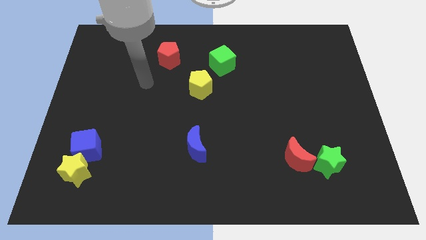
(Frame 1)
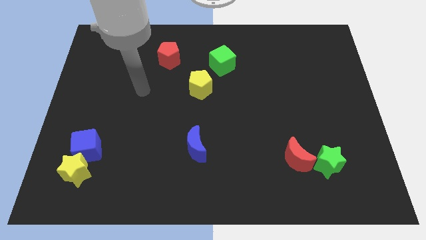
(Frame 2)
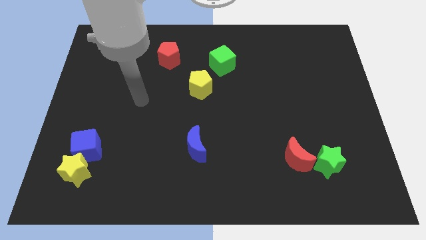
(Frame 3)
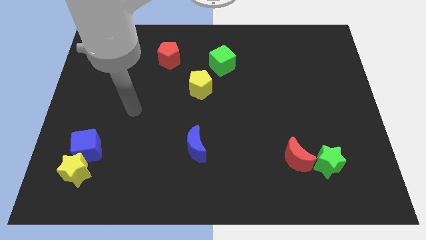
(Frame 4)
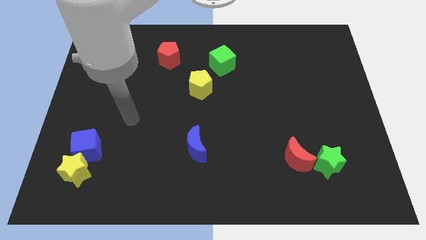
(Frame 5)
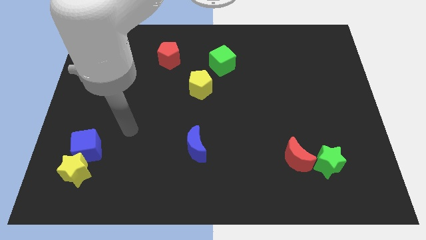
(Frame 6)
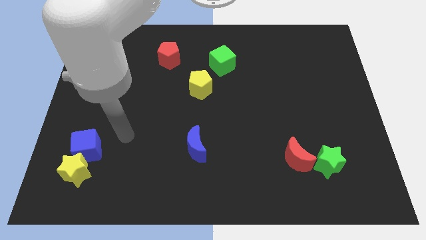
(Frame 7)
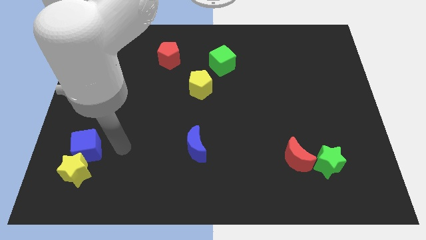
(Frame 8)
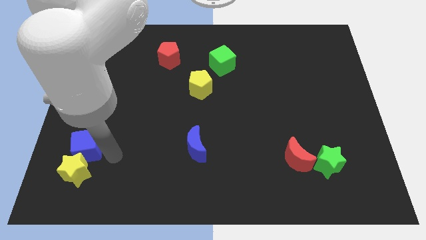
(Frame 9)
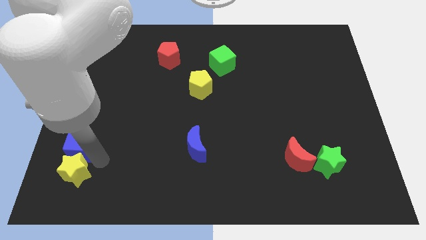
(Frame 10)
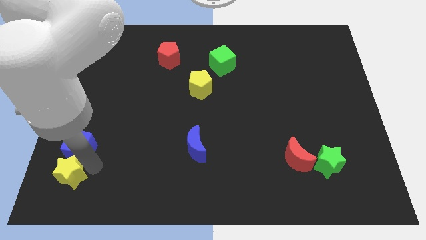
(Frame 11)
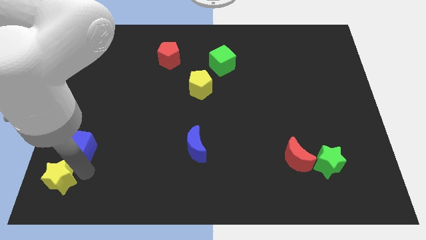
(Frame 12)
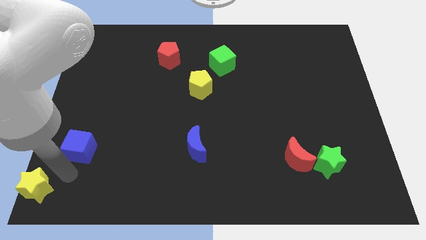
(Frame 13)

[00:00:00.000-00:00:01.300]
move the blue cube away from the yellow star

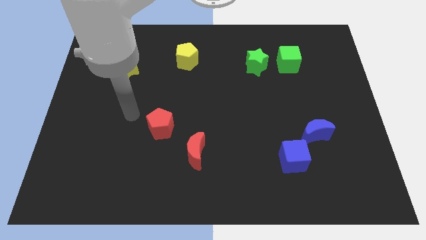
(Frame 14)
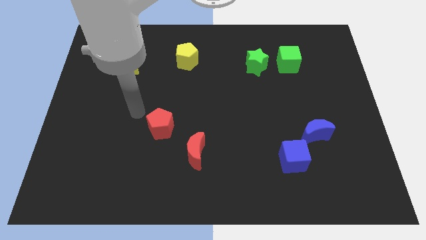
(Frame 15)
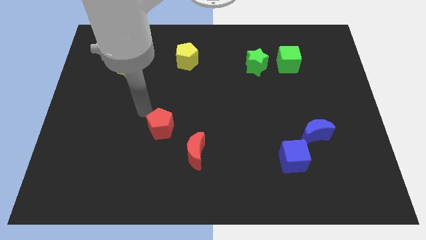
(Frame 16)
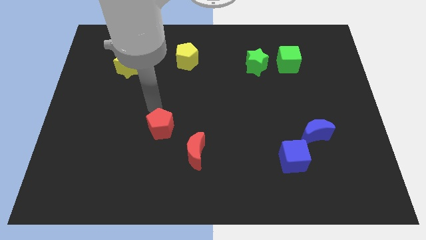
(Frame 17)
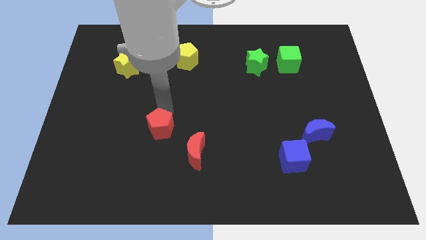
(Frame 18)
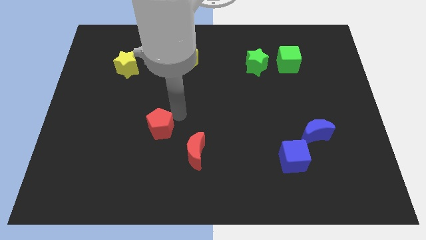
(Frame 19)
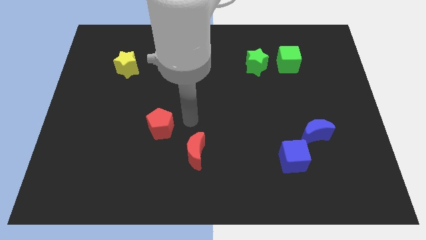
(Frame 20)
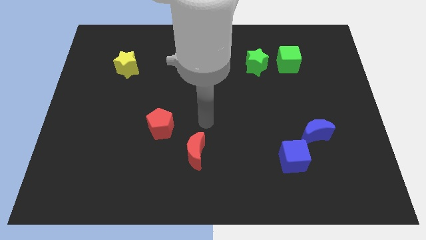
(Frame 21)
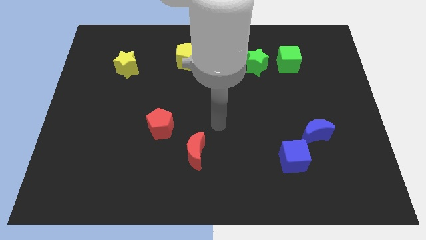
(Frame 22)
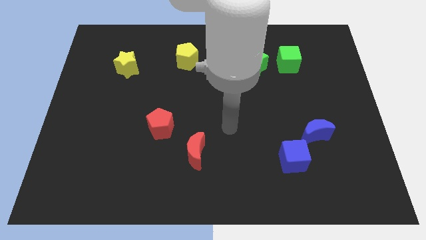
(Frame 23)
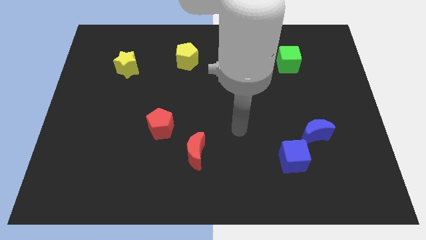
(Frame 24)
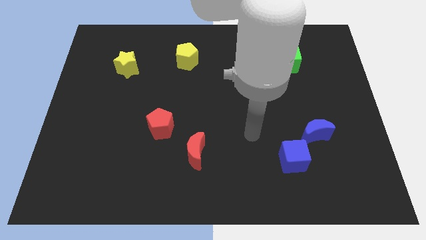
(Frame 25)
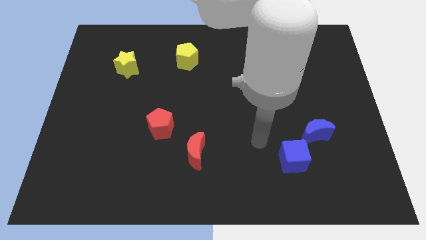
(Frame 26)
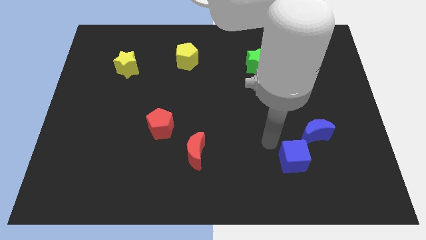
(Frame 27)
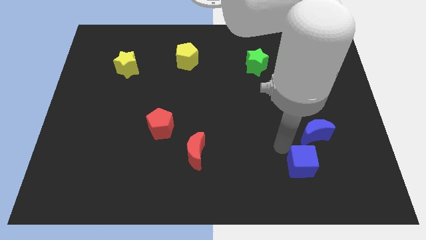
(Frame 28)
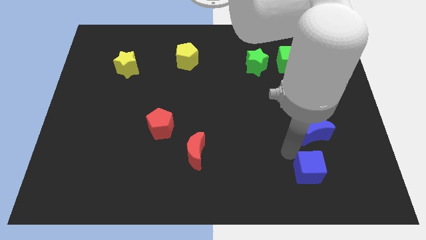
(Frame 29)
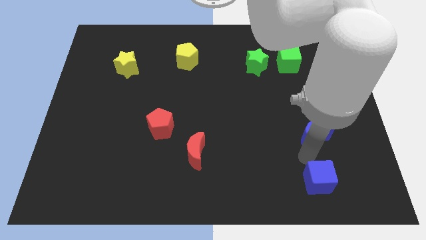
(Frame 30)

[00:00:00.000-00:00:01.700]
separate the blue moon from the blue cube

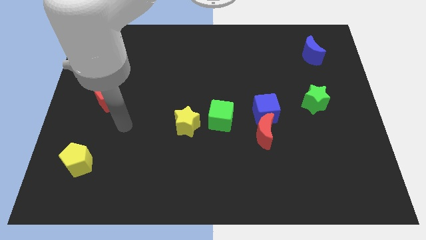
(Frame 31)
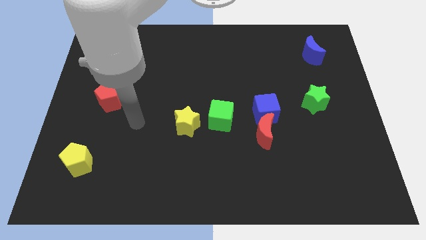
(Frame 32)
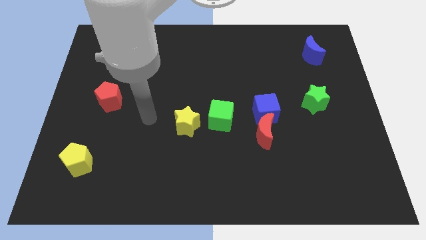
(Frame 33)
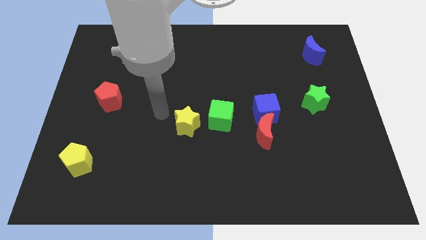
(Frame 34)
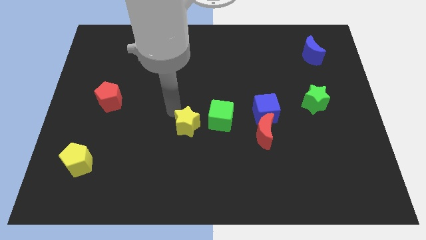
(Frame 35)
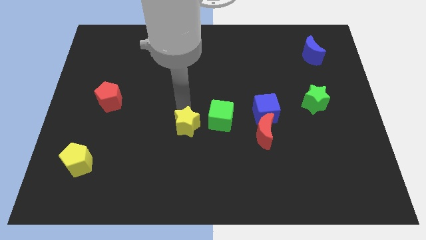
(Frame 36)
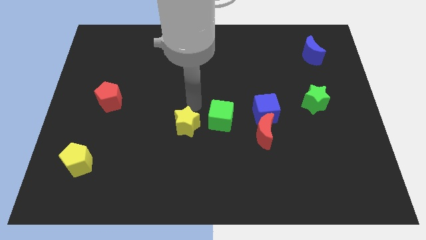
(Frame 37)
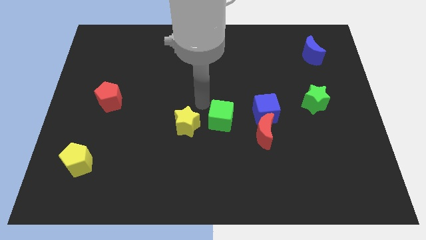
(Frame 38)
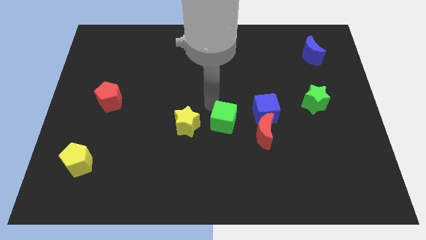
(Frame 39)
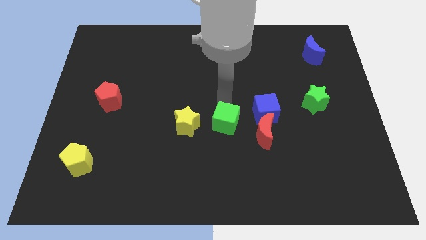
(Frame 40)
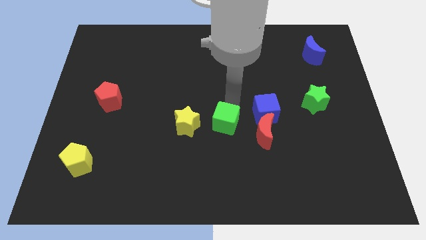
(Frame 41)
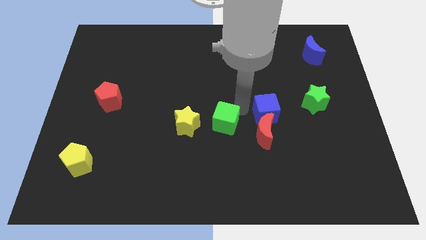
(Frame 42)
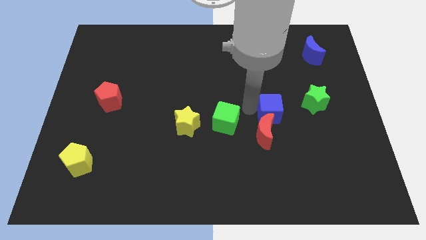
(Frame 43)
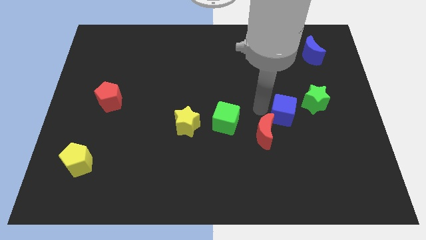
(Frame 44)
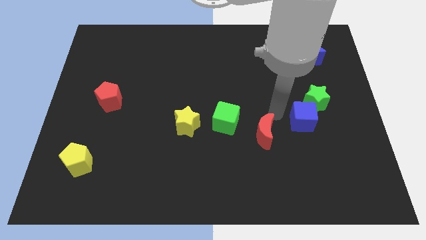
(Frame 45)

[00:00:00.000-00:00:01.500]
move the red moon away from the blue cube

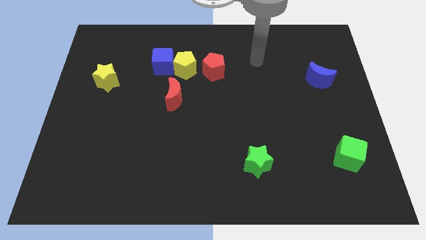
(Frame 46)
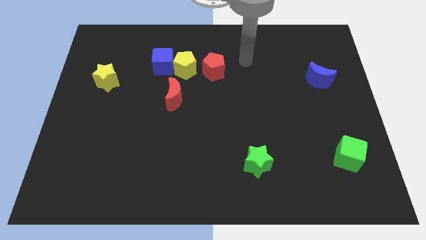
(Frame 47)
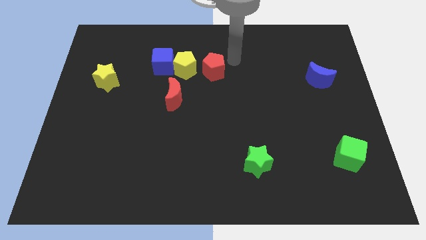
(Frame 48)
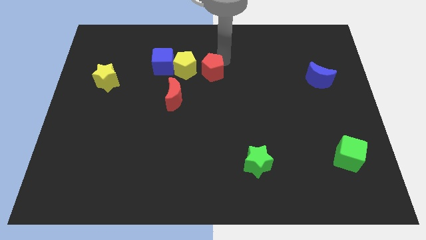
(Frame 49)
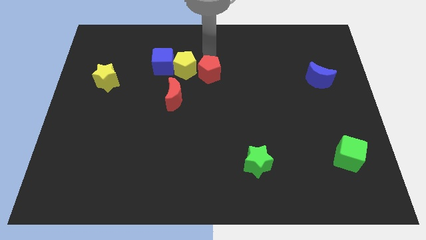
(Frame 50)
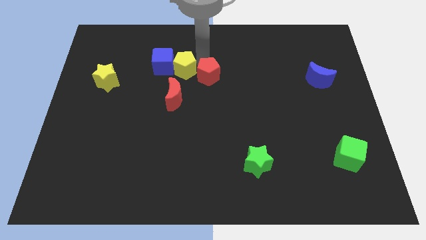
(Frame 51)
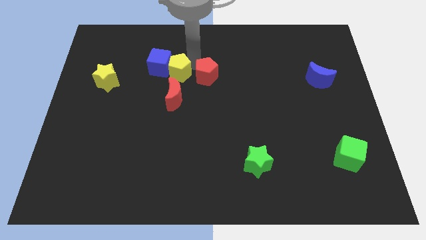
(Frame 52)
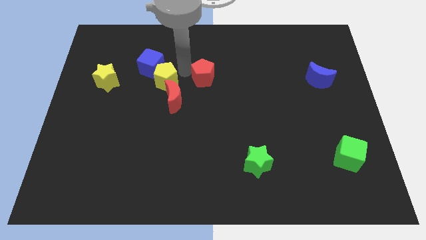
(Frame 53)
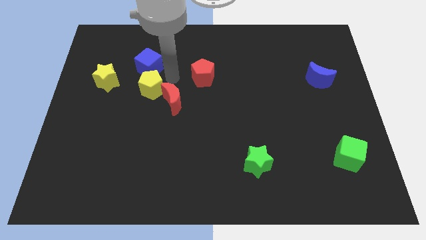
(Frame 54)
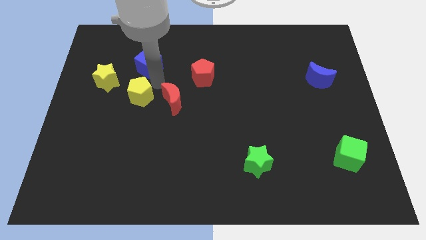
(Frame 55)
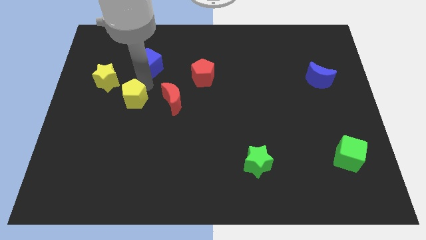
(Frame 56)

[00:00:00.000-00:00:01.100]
separate the blue cube from the yellow pentagon

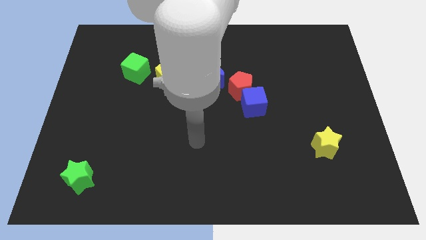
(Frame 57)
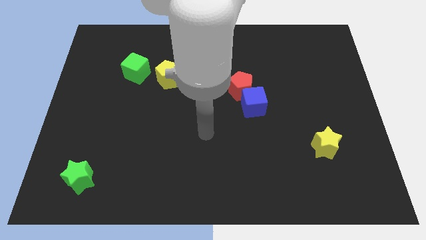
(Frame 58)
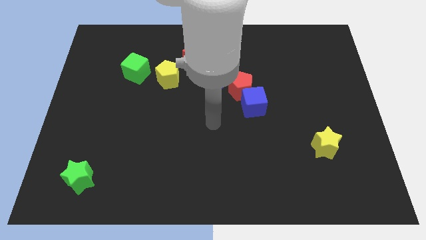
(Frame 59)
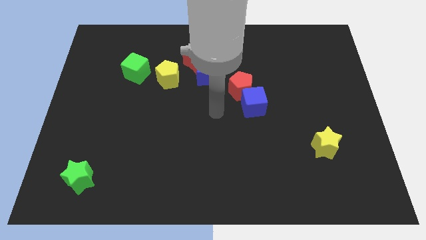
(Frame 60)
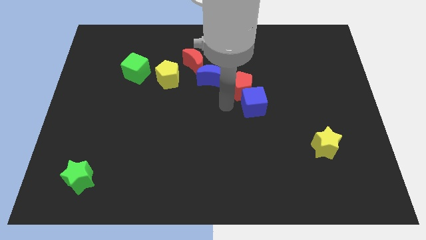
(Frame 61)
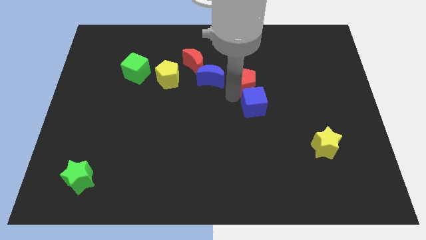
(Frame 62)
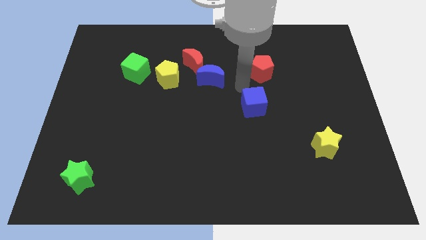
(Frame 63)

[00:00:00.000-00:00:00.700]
move the blue cube away from the red pentagon

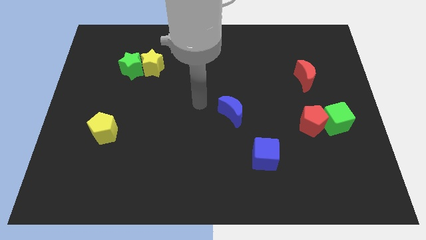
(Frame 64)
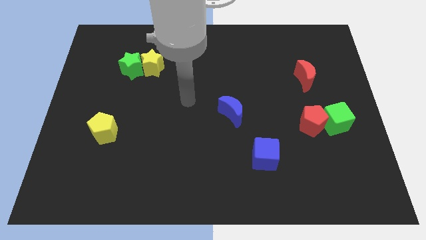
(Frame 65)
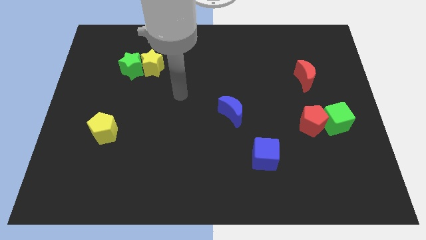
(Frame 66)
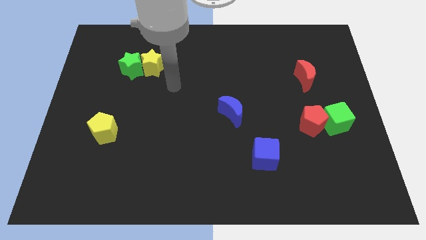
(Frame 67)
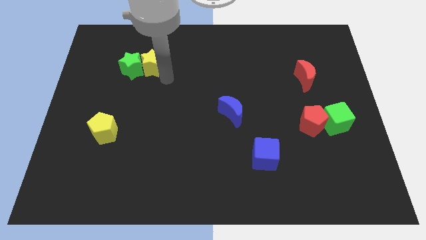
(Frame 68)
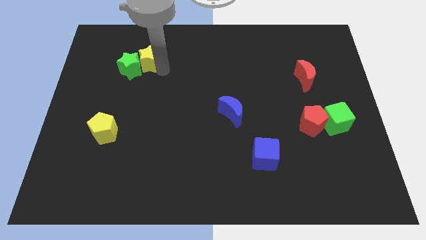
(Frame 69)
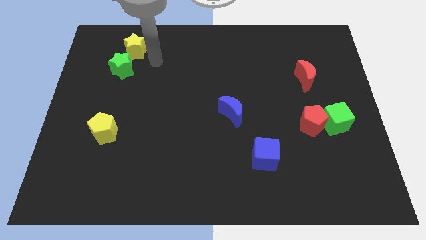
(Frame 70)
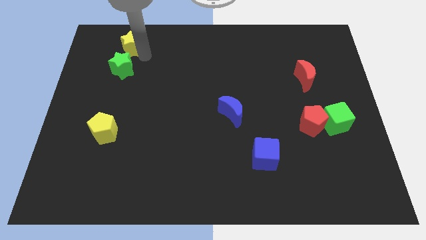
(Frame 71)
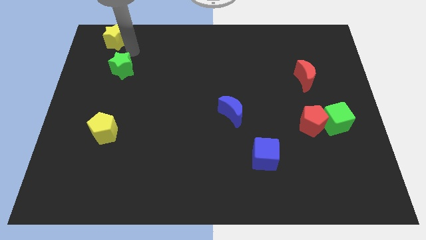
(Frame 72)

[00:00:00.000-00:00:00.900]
pull the green star apart from the yellow star

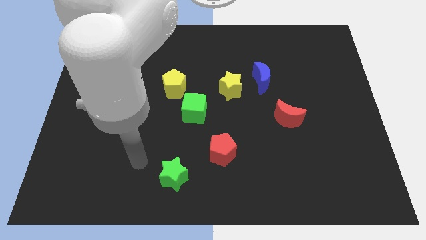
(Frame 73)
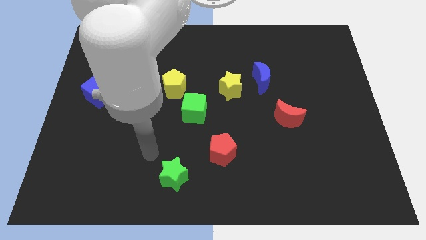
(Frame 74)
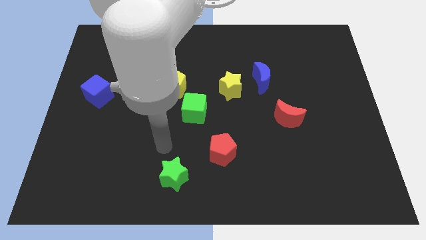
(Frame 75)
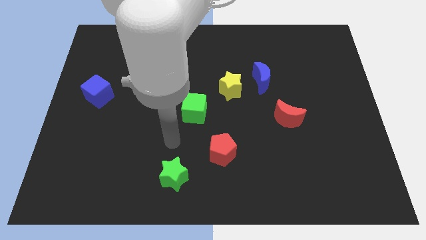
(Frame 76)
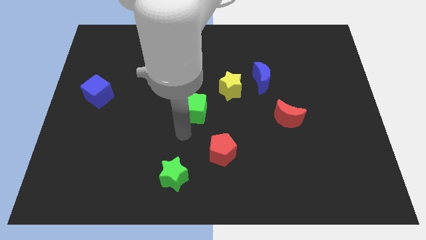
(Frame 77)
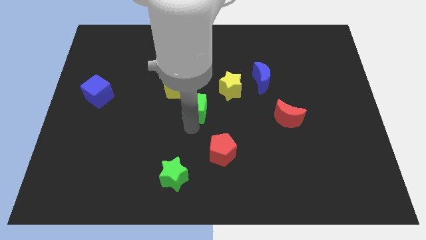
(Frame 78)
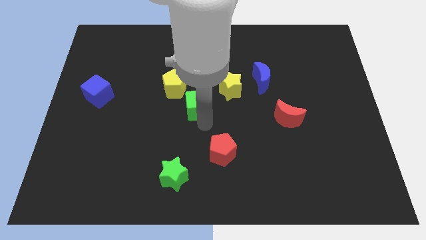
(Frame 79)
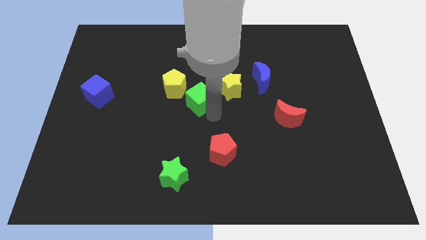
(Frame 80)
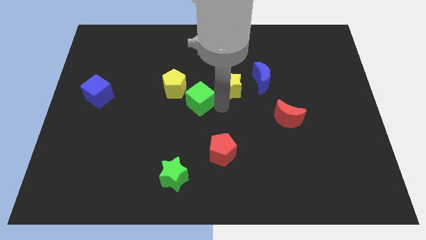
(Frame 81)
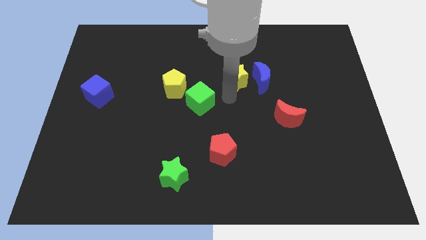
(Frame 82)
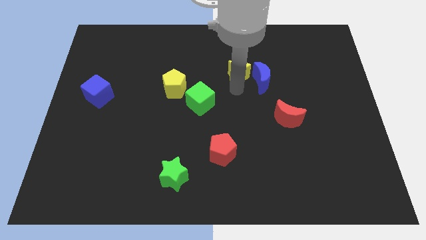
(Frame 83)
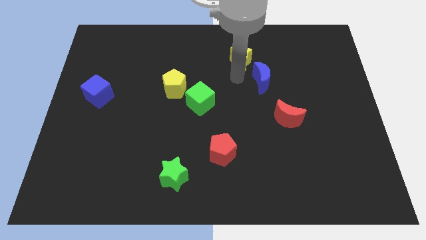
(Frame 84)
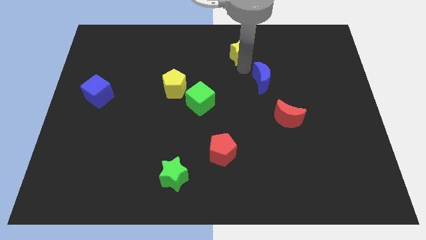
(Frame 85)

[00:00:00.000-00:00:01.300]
separate the blue moon from the yellow star

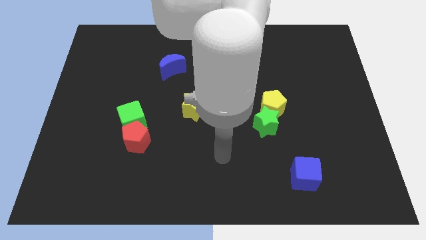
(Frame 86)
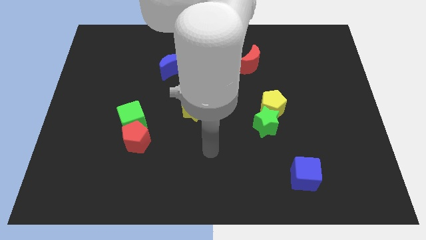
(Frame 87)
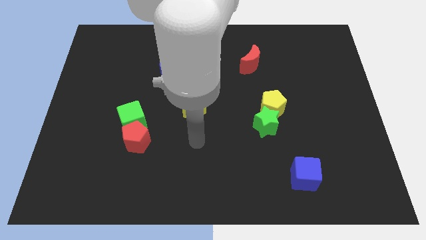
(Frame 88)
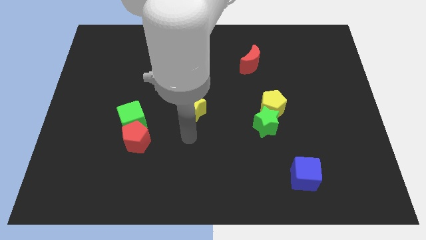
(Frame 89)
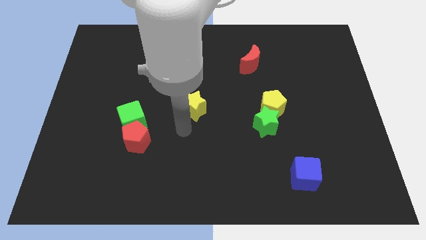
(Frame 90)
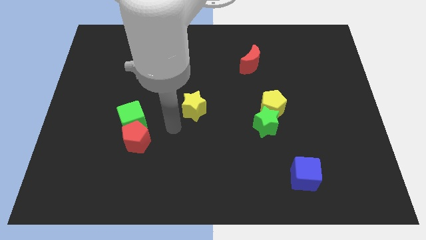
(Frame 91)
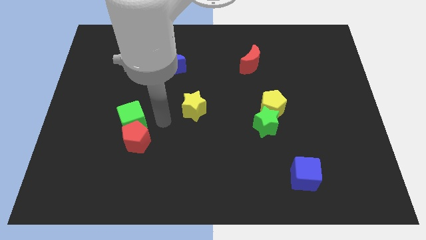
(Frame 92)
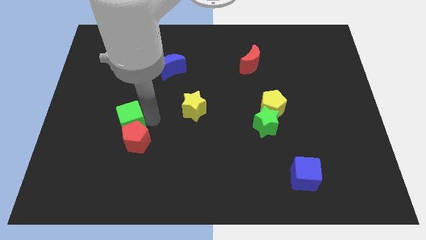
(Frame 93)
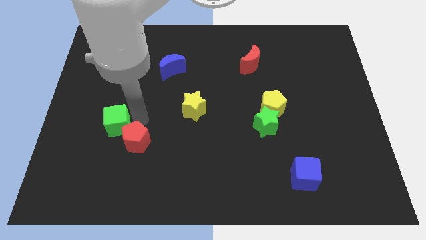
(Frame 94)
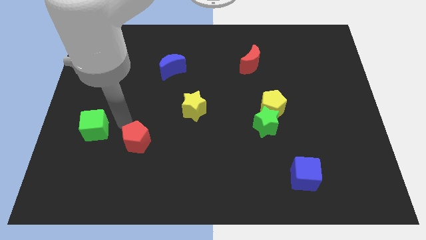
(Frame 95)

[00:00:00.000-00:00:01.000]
separate the red pentagon from the green cube
